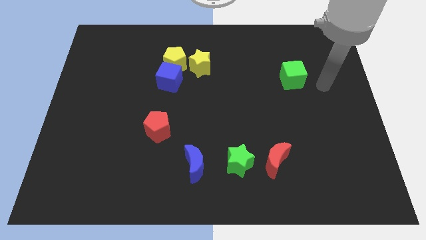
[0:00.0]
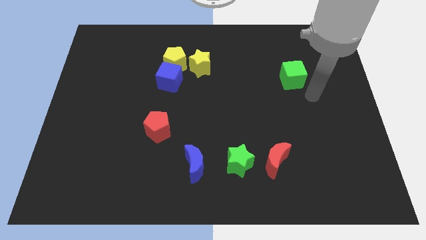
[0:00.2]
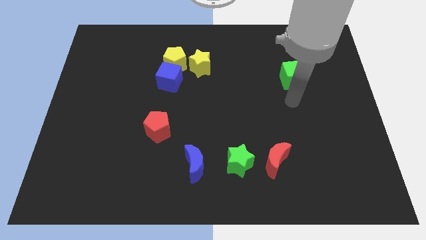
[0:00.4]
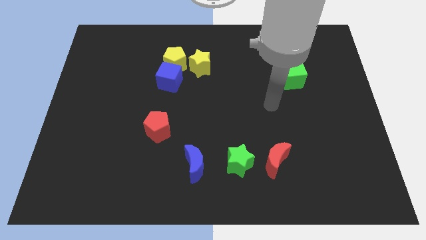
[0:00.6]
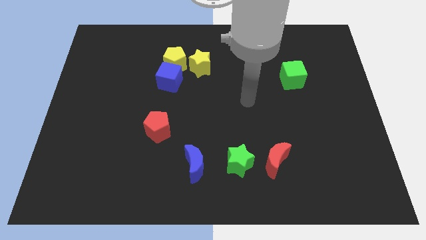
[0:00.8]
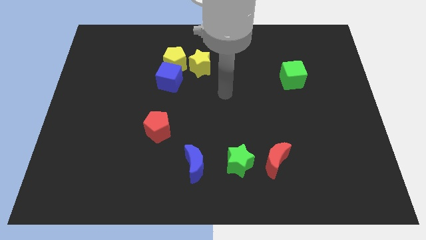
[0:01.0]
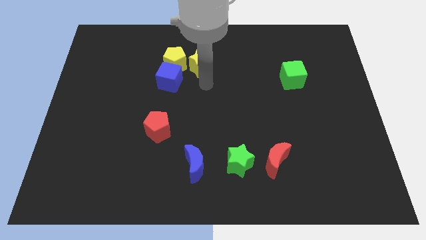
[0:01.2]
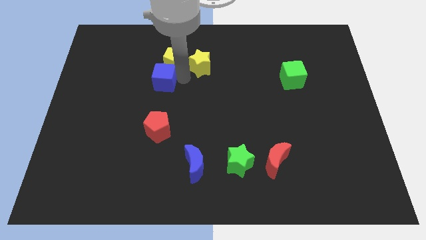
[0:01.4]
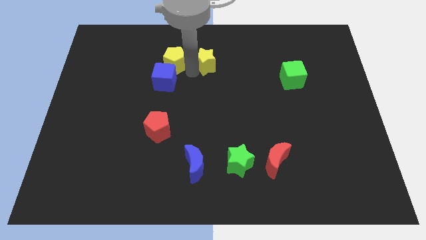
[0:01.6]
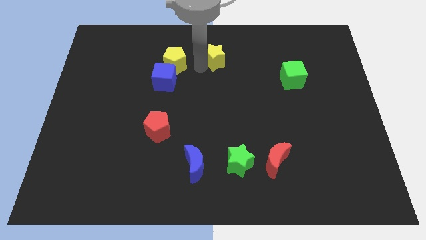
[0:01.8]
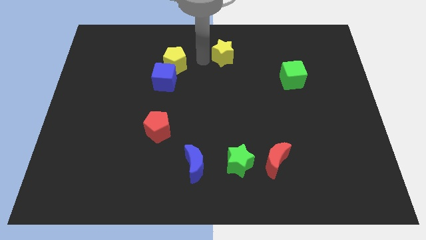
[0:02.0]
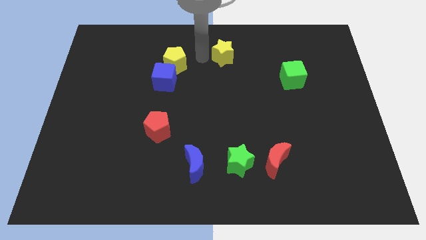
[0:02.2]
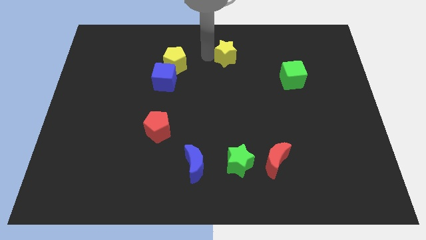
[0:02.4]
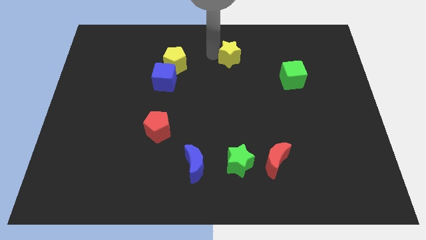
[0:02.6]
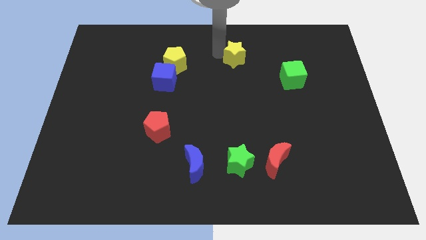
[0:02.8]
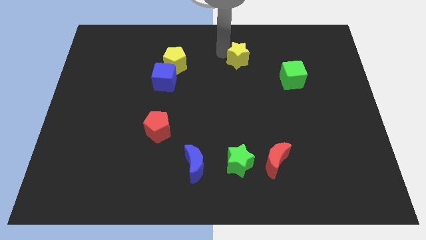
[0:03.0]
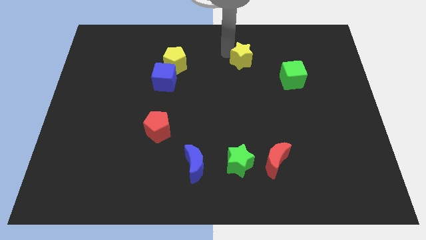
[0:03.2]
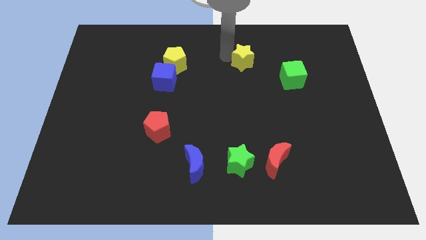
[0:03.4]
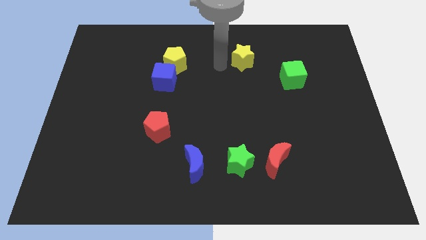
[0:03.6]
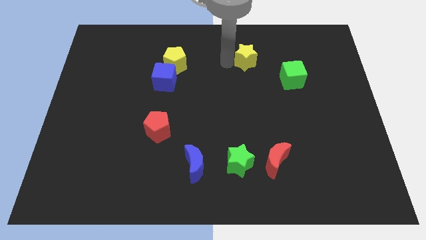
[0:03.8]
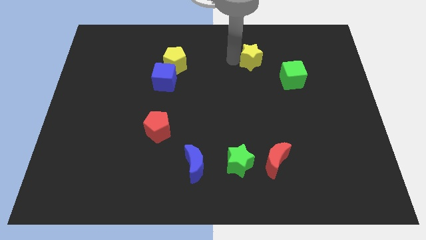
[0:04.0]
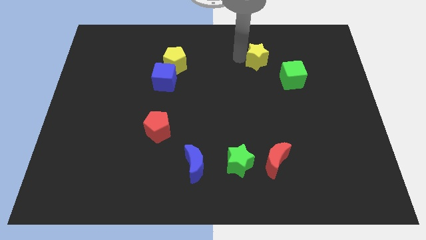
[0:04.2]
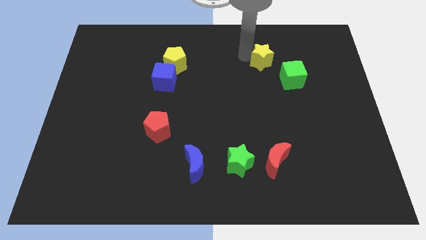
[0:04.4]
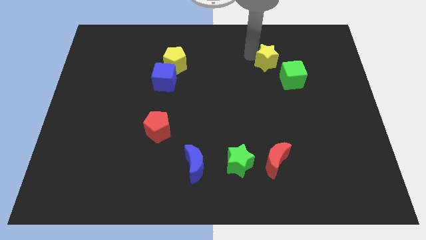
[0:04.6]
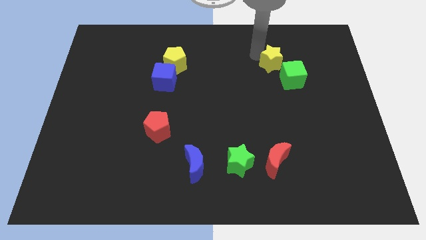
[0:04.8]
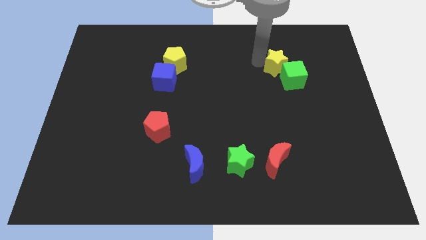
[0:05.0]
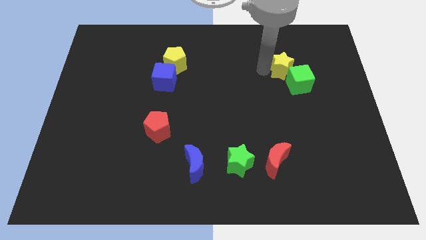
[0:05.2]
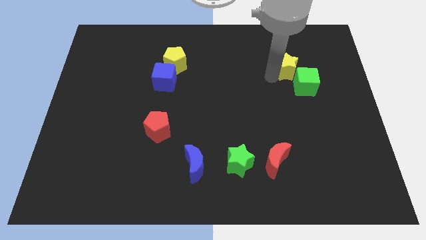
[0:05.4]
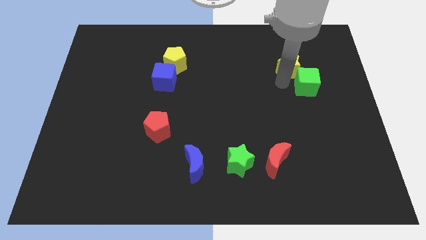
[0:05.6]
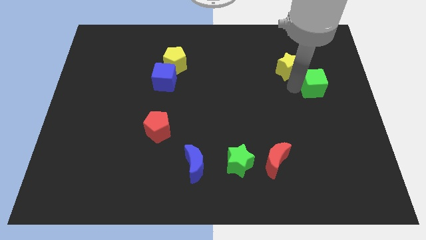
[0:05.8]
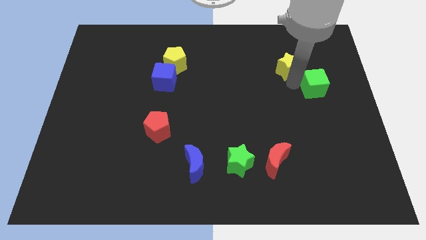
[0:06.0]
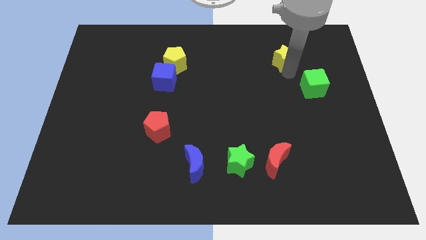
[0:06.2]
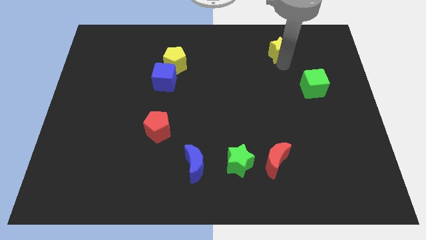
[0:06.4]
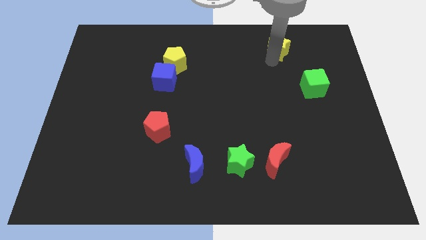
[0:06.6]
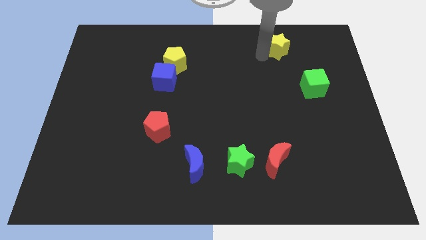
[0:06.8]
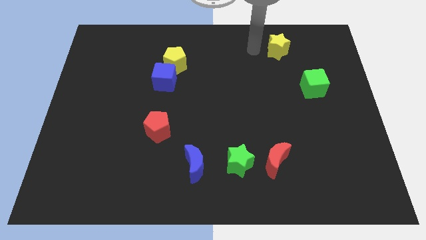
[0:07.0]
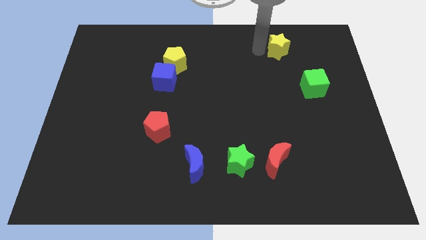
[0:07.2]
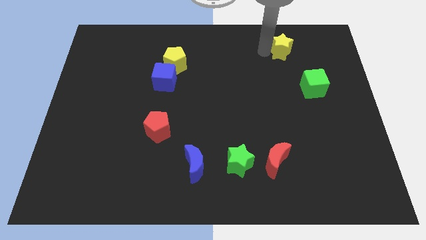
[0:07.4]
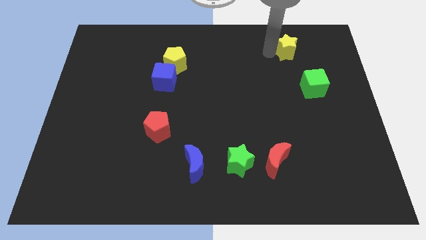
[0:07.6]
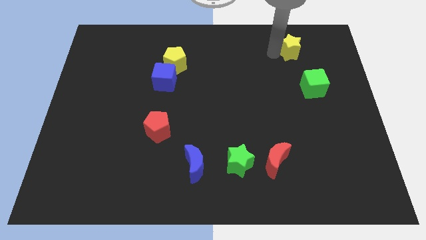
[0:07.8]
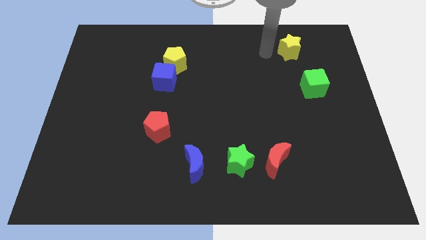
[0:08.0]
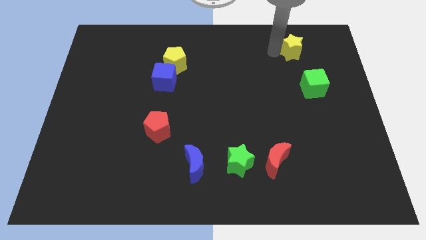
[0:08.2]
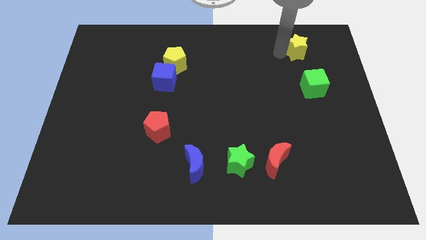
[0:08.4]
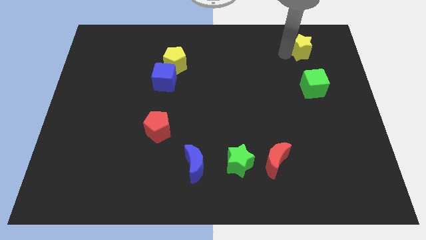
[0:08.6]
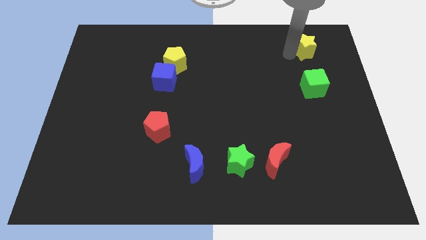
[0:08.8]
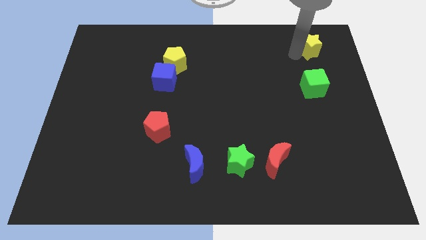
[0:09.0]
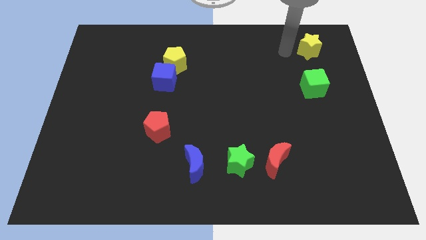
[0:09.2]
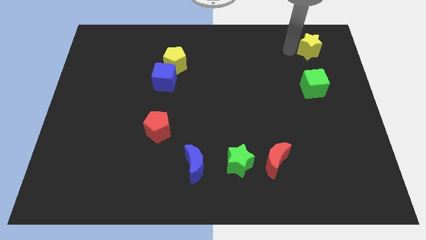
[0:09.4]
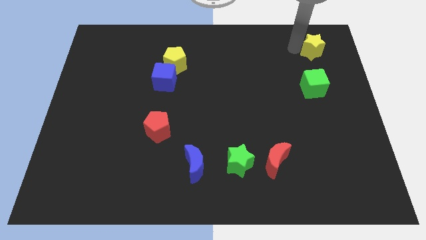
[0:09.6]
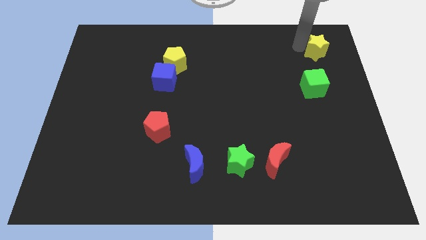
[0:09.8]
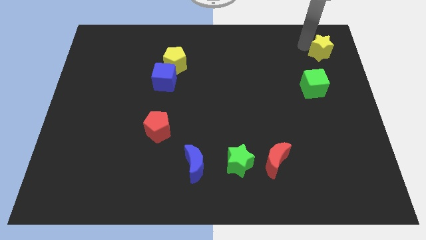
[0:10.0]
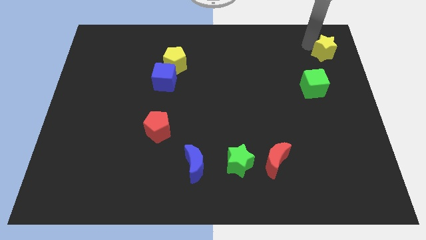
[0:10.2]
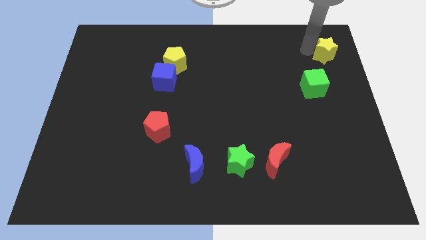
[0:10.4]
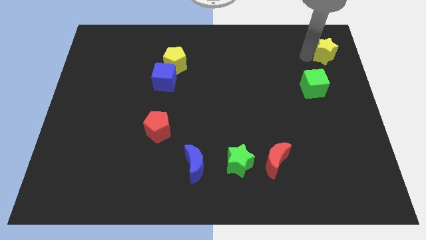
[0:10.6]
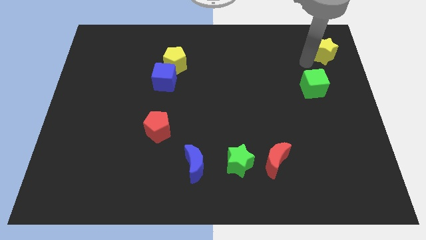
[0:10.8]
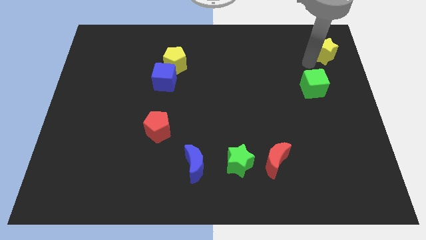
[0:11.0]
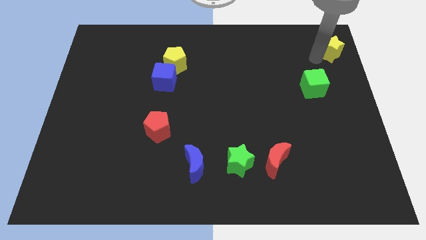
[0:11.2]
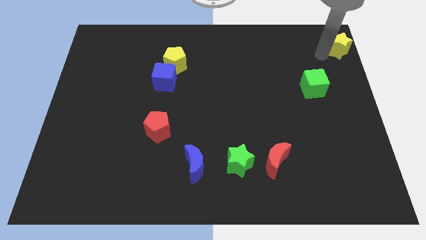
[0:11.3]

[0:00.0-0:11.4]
move the yellow star to the top right corner

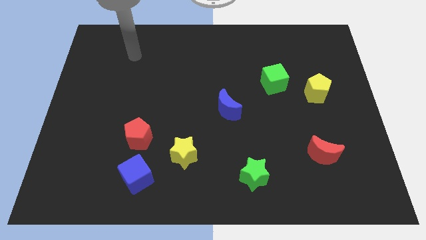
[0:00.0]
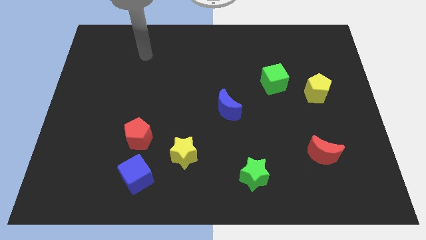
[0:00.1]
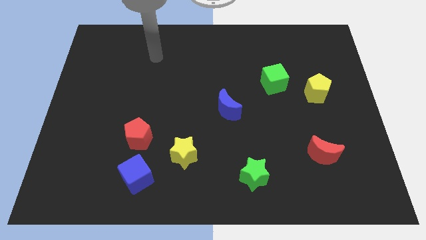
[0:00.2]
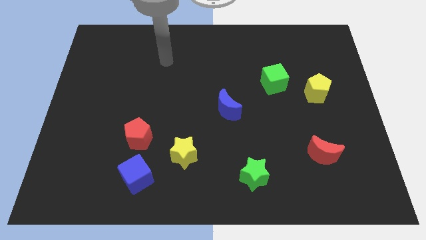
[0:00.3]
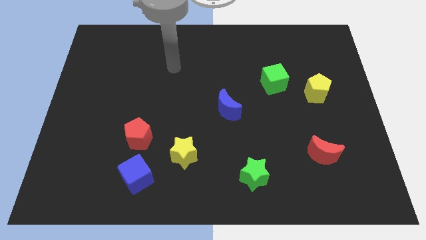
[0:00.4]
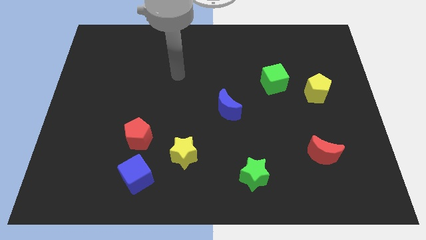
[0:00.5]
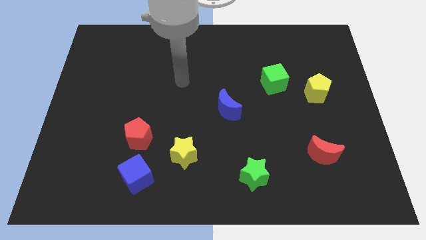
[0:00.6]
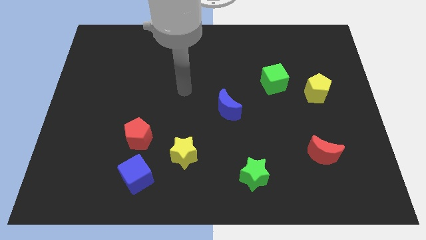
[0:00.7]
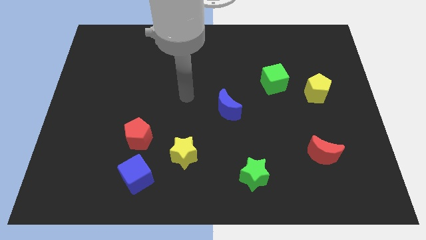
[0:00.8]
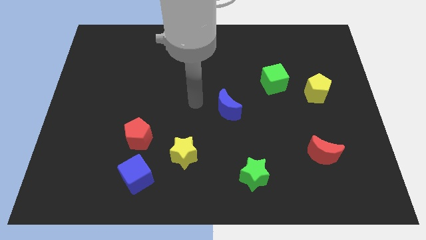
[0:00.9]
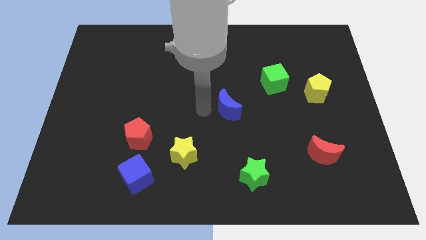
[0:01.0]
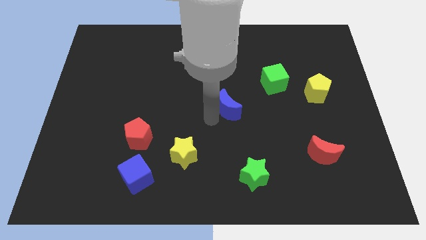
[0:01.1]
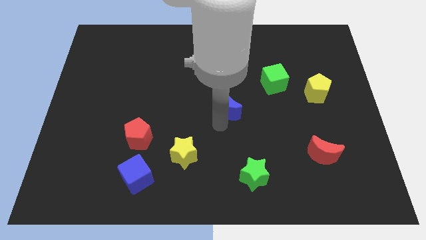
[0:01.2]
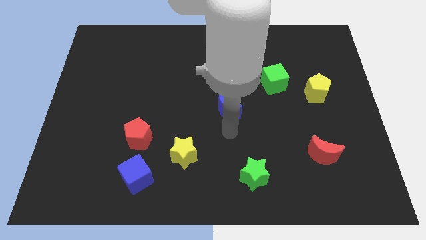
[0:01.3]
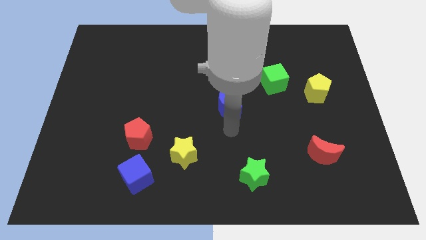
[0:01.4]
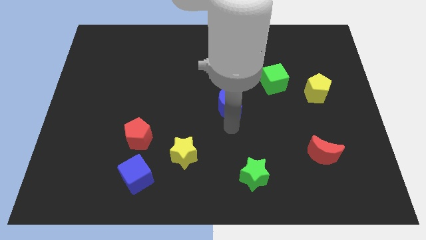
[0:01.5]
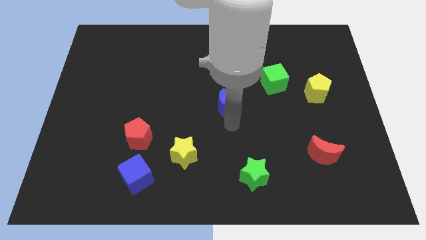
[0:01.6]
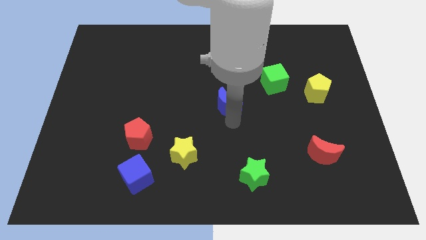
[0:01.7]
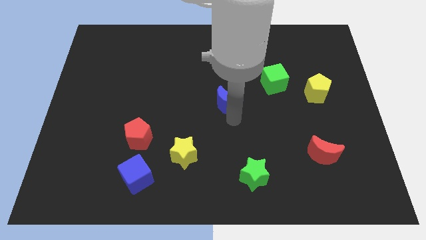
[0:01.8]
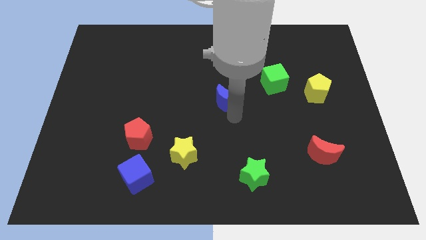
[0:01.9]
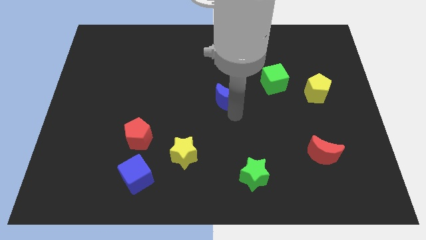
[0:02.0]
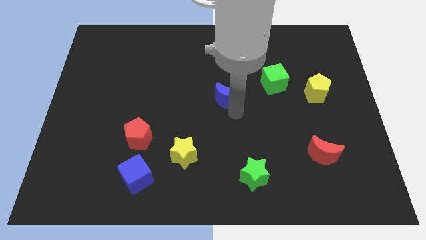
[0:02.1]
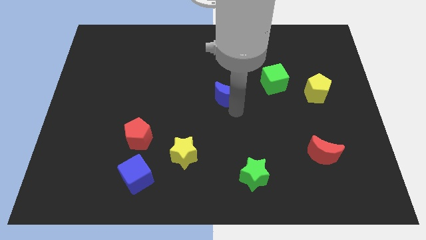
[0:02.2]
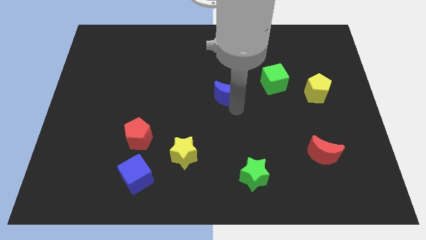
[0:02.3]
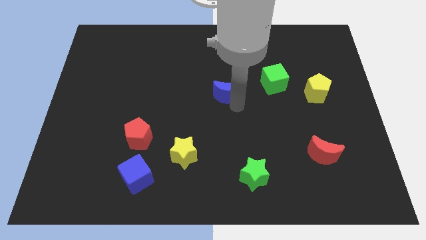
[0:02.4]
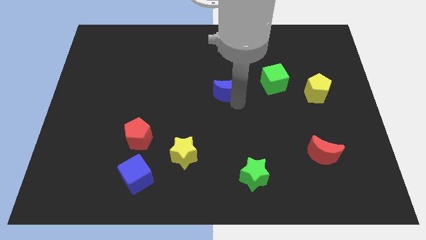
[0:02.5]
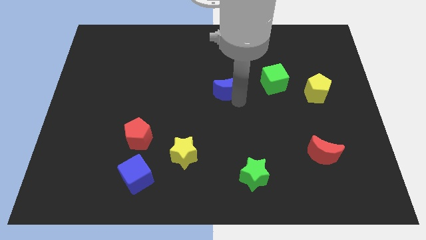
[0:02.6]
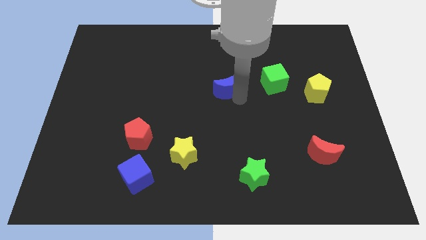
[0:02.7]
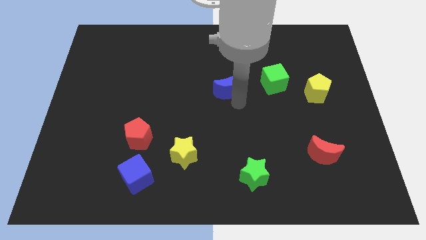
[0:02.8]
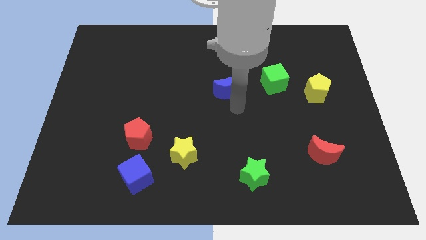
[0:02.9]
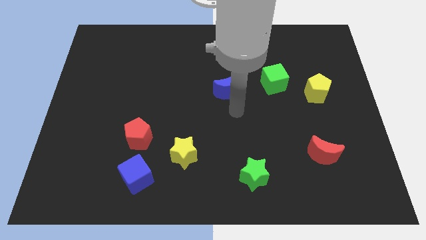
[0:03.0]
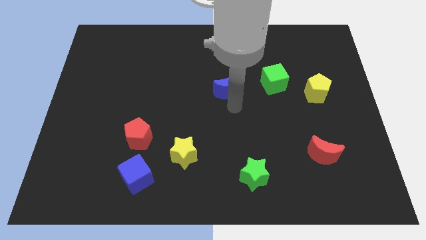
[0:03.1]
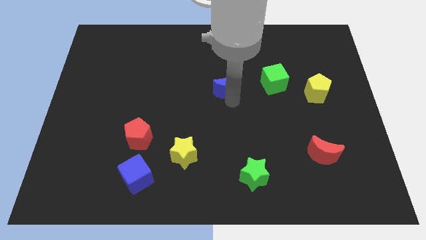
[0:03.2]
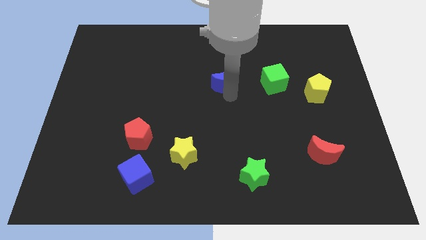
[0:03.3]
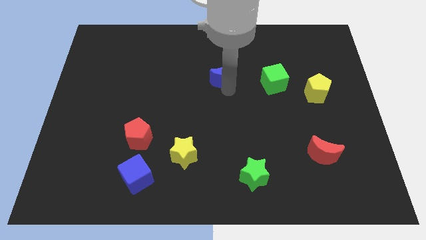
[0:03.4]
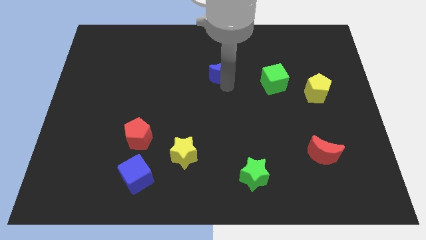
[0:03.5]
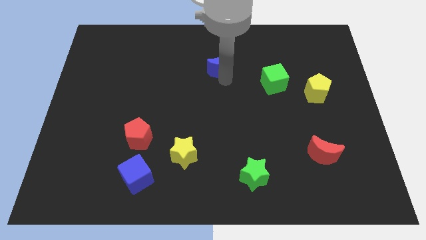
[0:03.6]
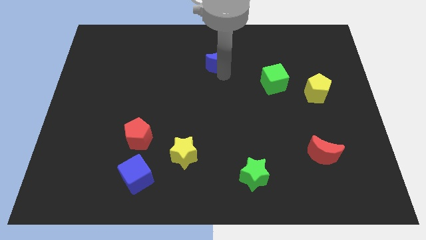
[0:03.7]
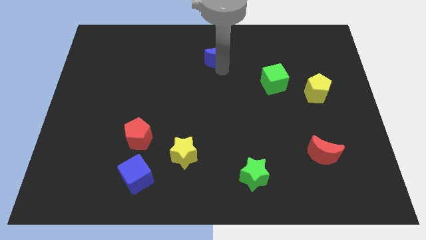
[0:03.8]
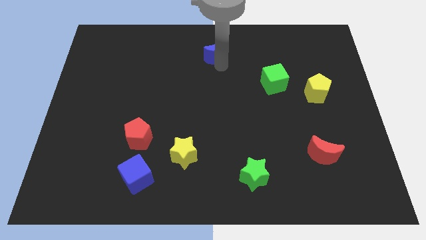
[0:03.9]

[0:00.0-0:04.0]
move the blue moon to the top side
